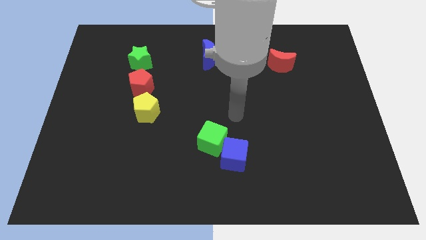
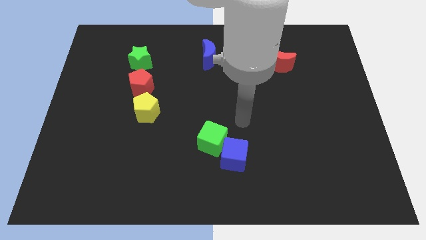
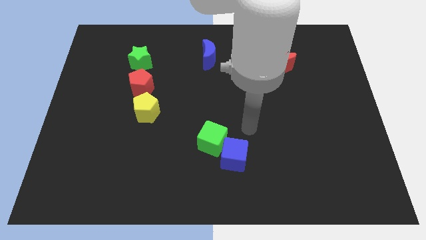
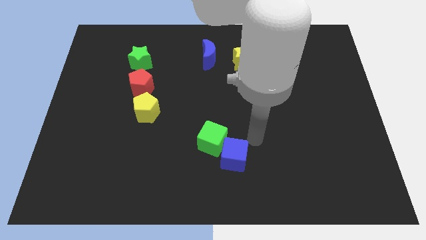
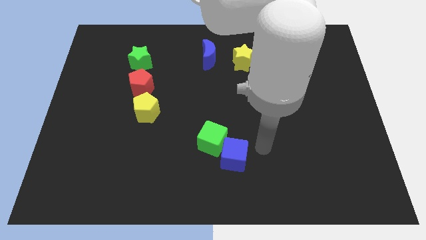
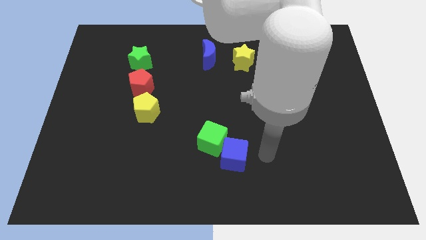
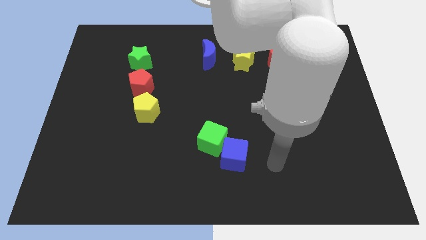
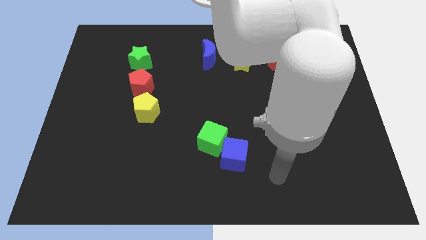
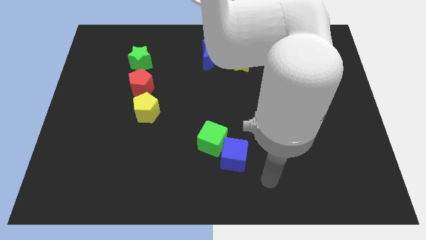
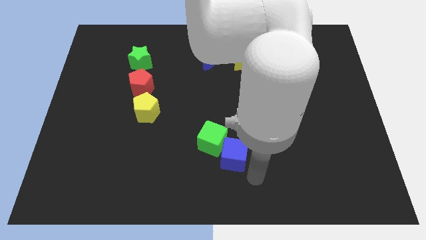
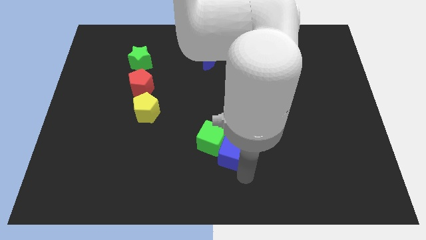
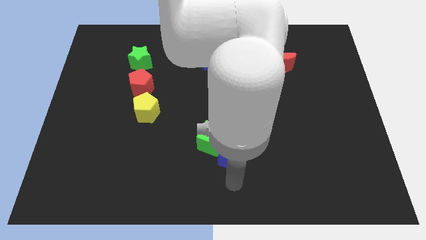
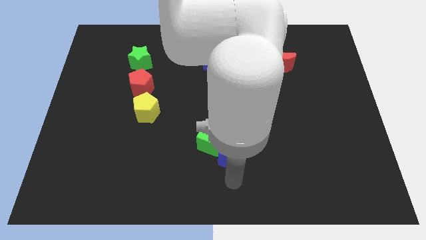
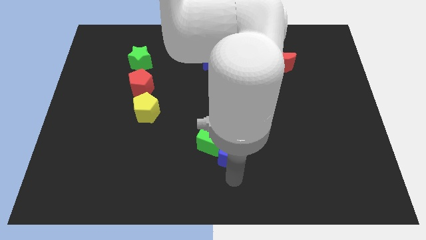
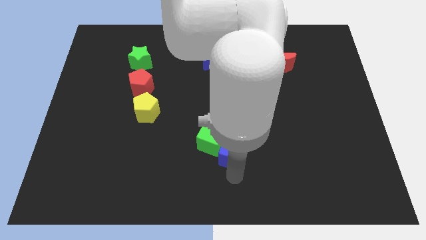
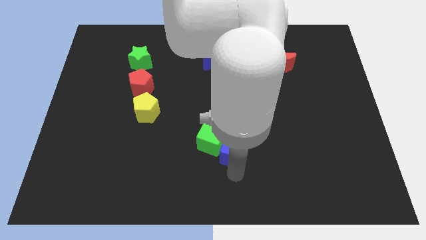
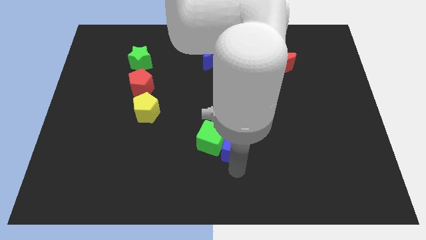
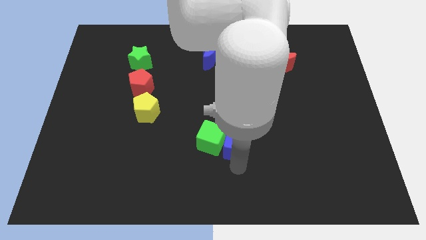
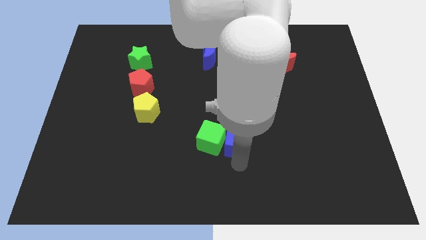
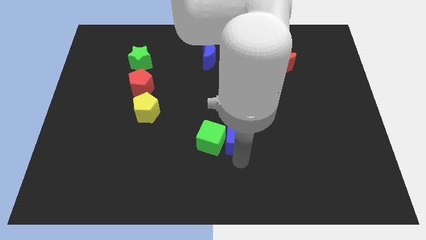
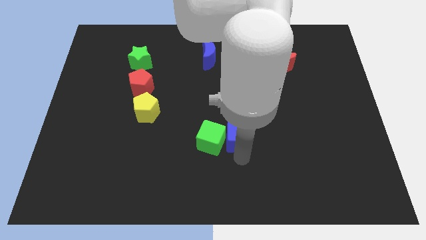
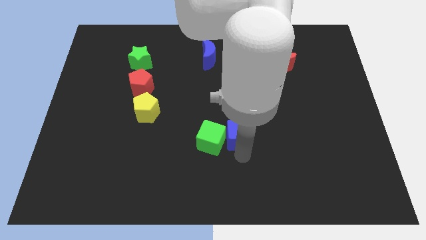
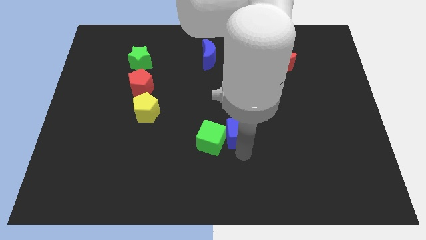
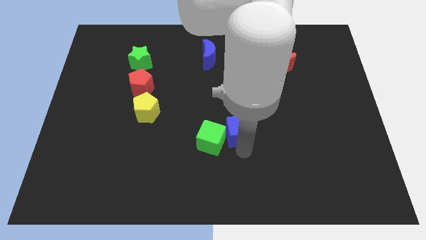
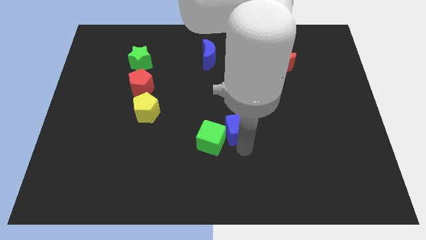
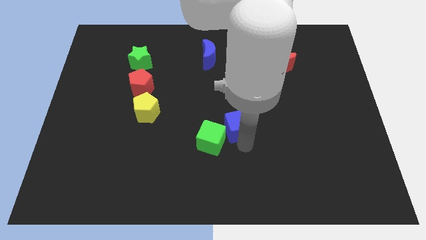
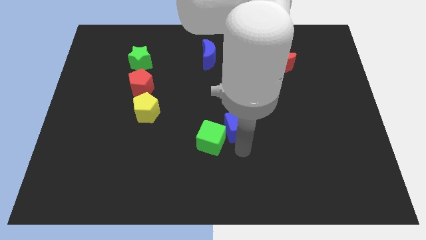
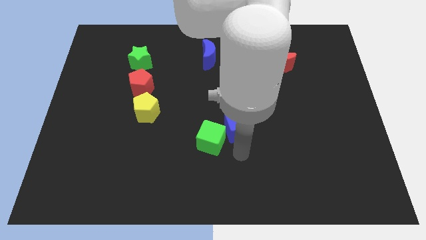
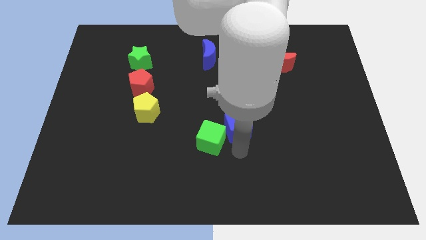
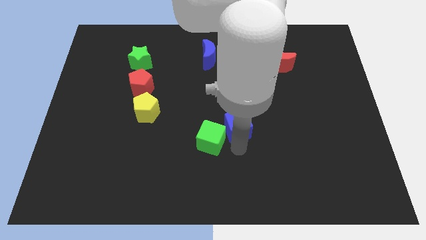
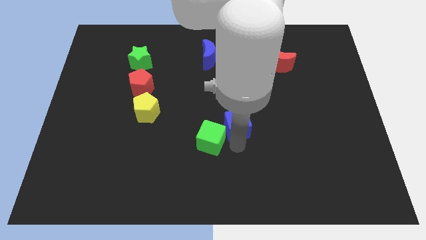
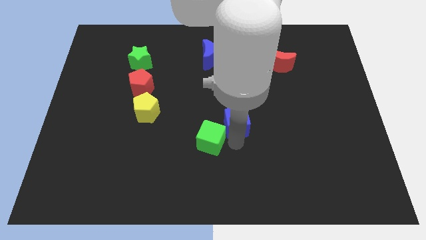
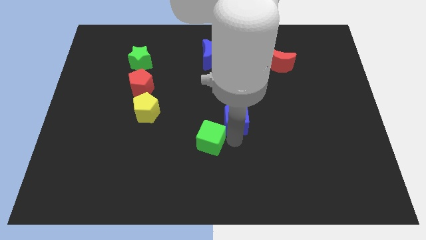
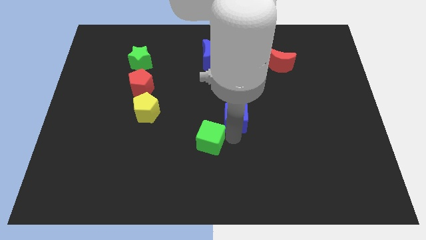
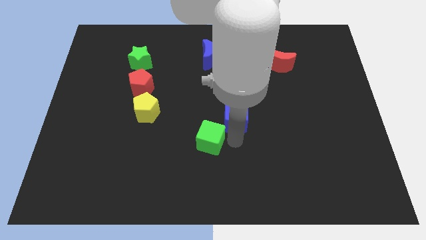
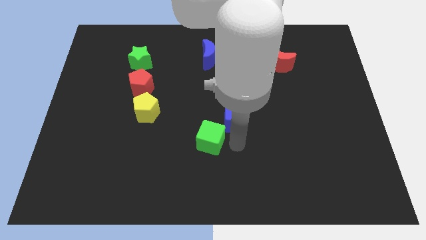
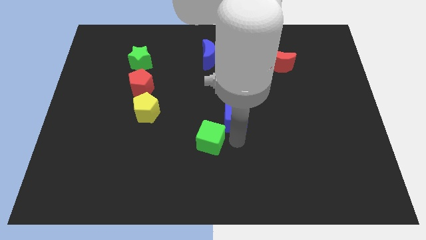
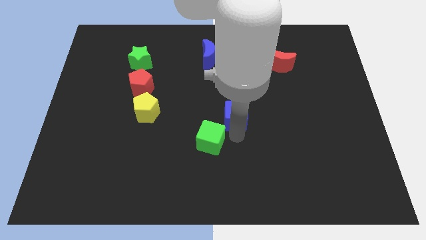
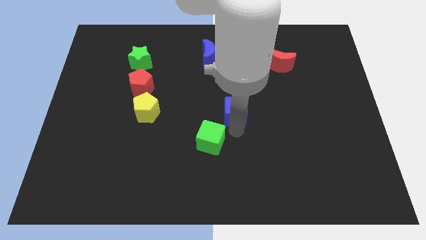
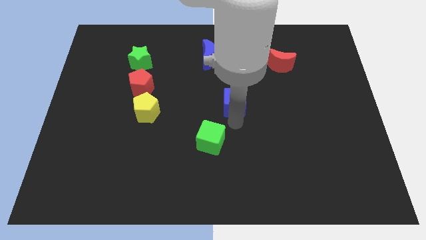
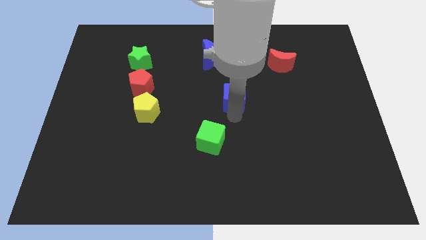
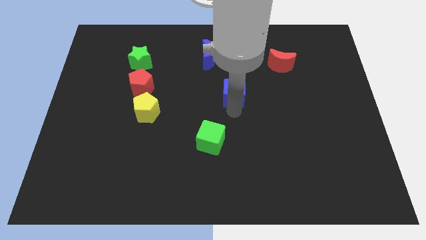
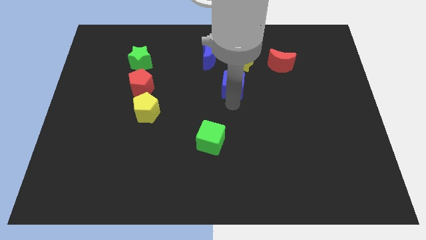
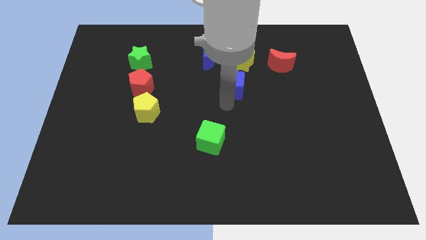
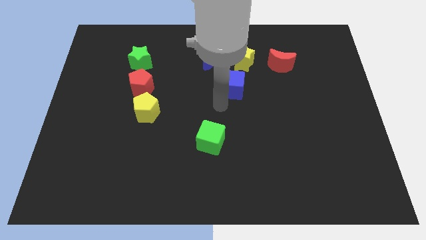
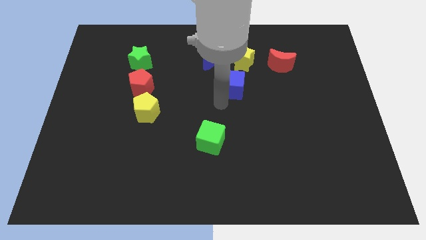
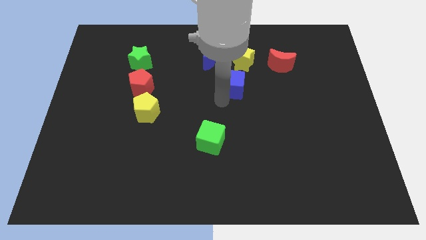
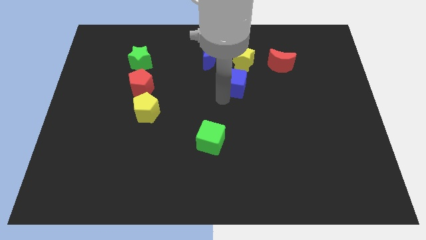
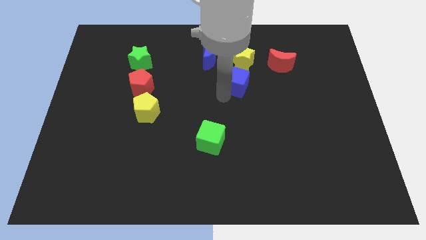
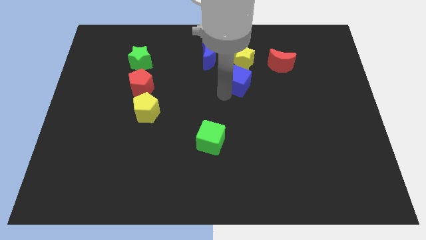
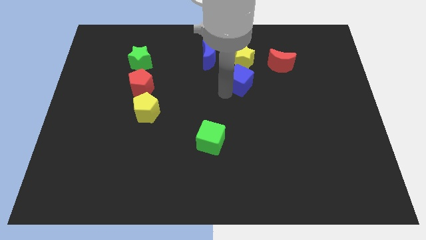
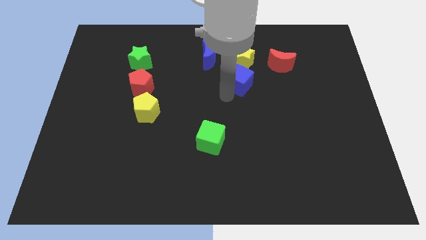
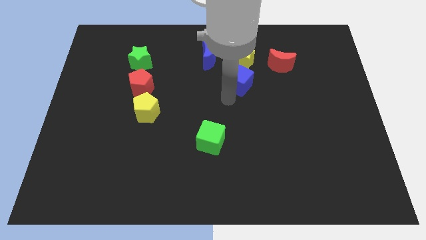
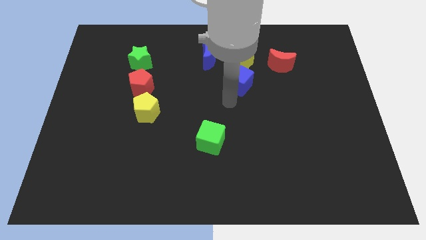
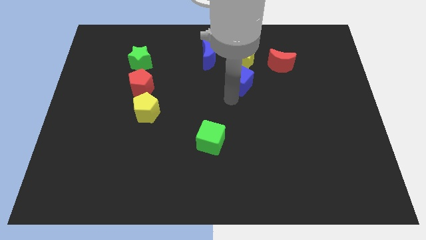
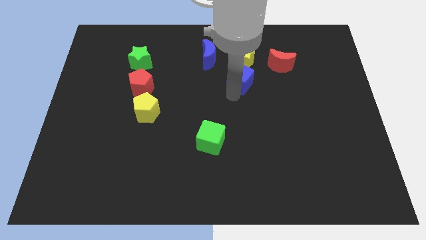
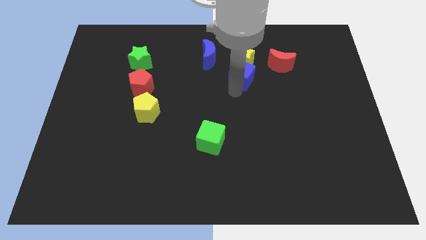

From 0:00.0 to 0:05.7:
slide the blue cube next to the yellow star

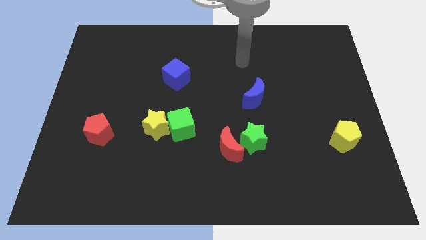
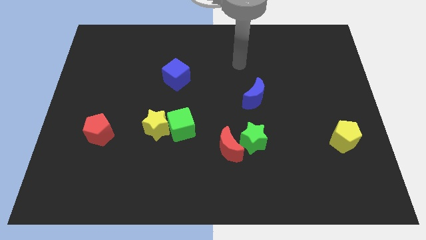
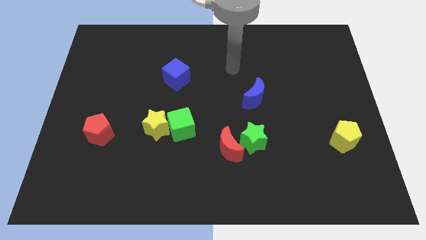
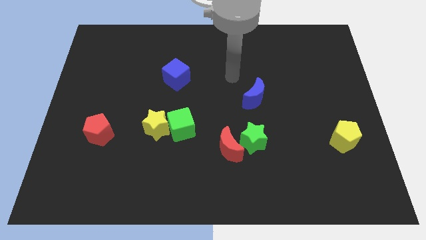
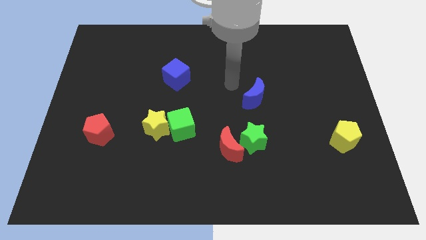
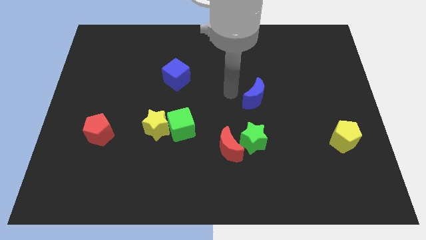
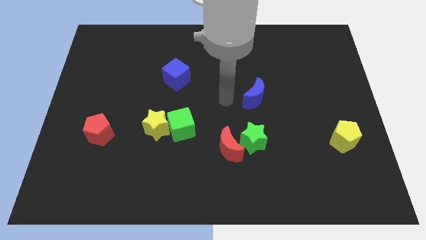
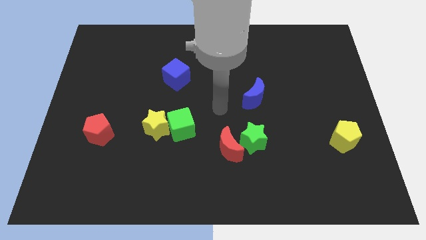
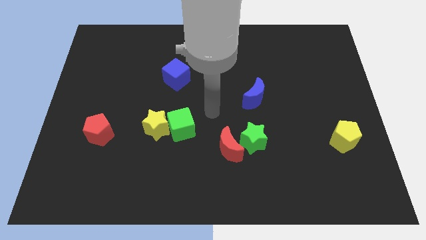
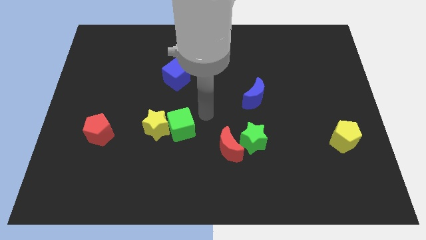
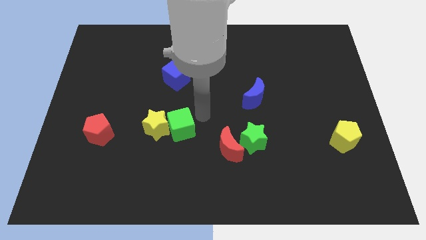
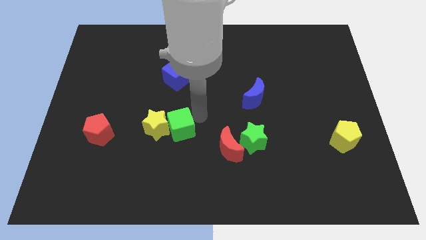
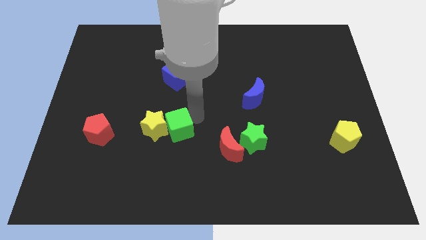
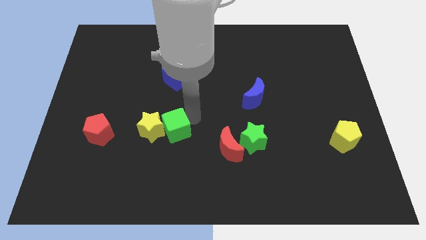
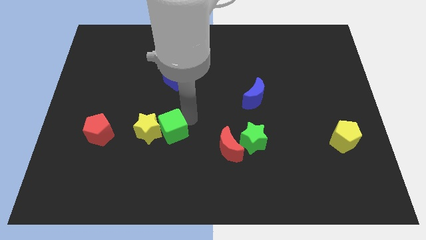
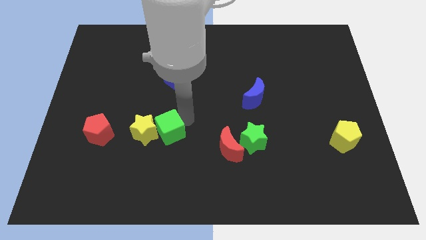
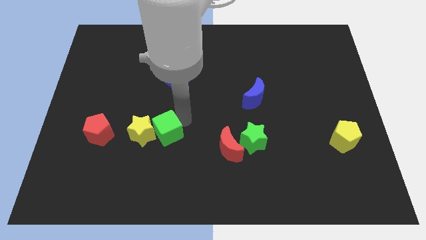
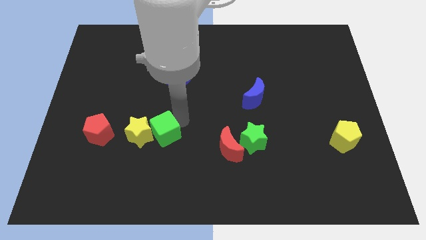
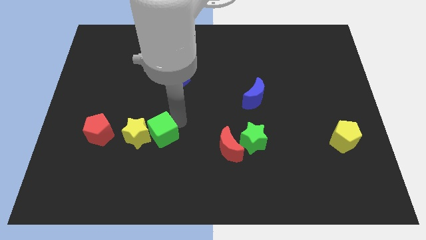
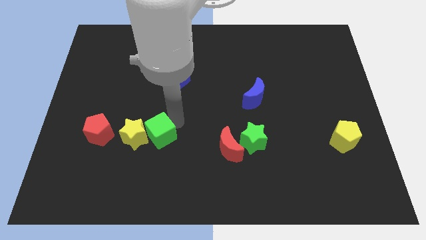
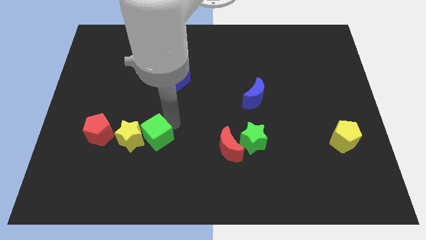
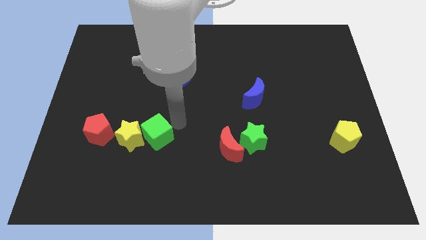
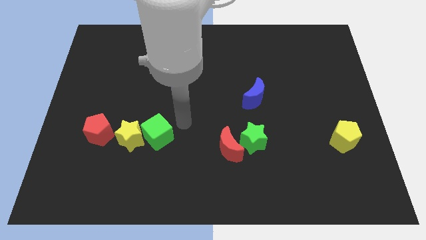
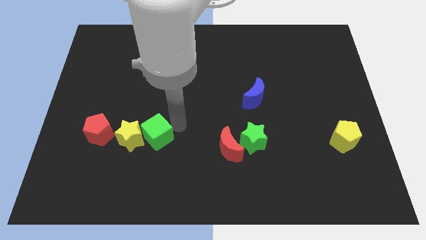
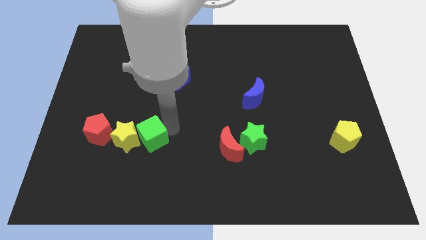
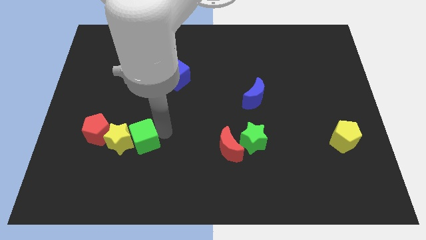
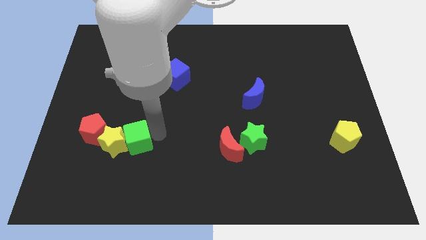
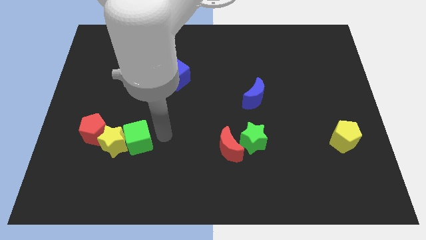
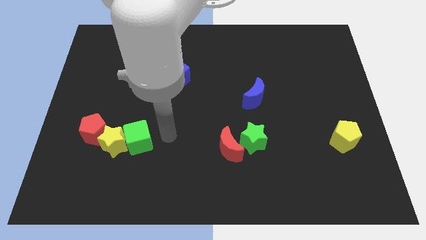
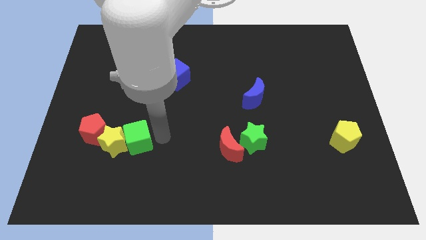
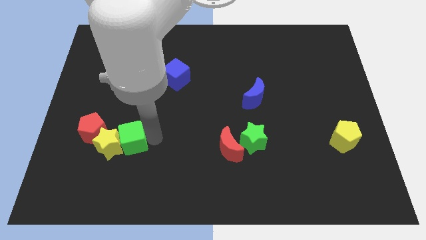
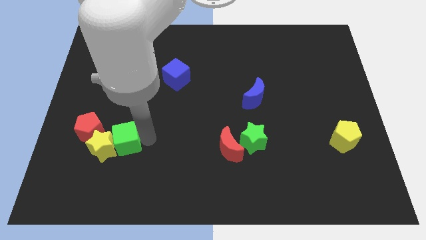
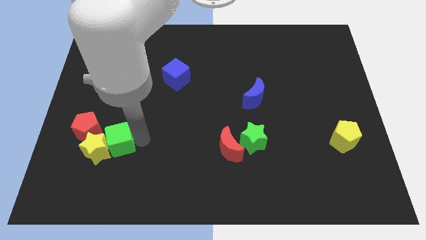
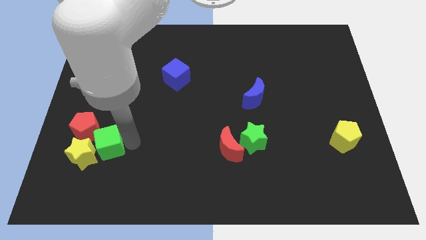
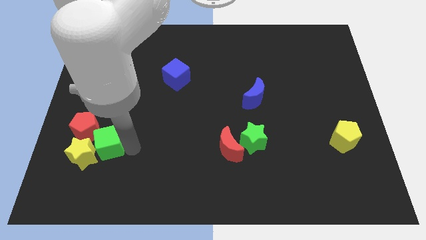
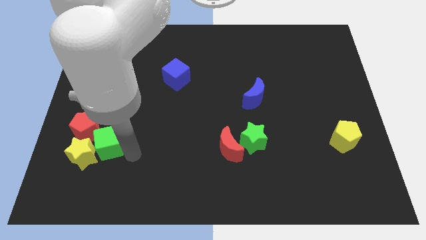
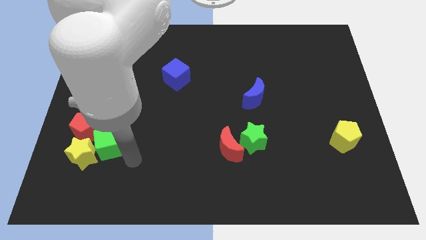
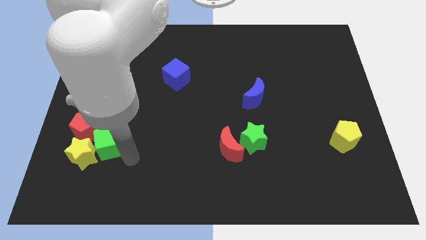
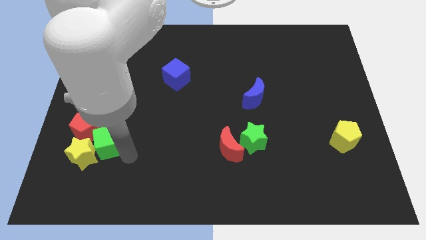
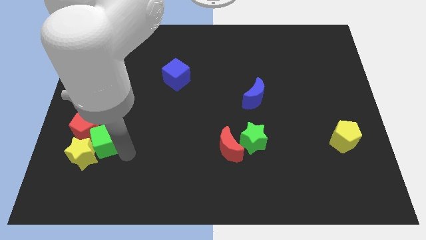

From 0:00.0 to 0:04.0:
move the green cube to the red pentagon
